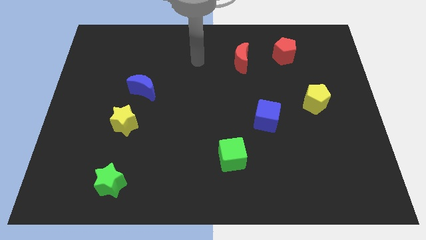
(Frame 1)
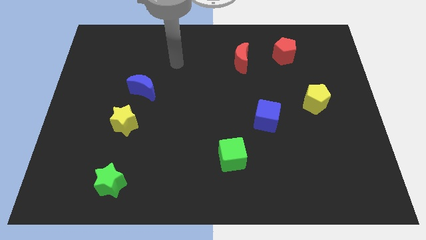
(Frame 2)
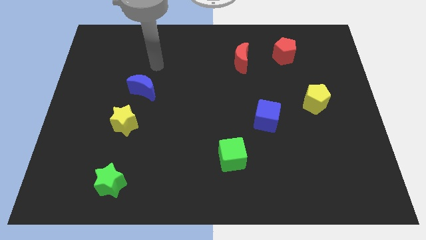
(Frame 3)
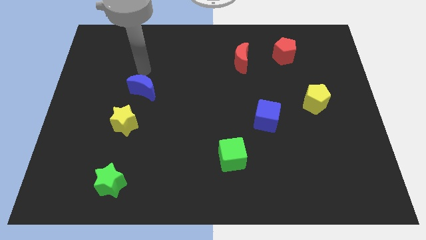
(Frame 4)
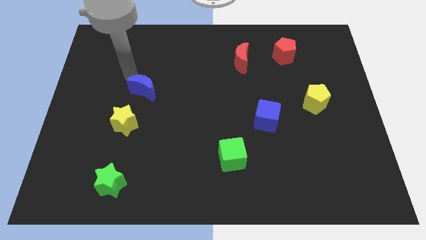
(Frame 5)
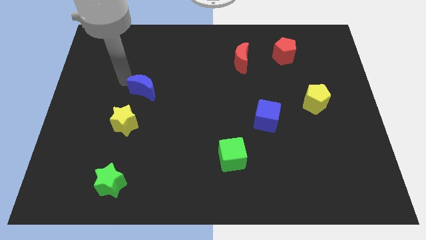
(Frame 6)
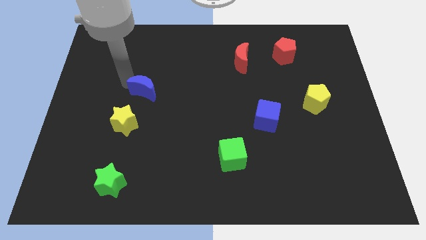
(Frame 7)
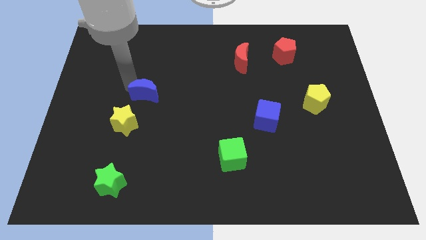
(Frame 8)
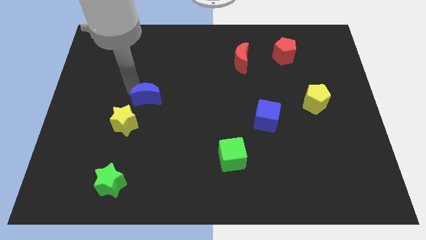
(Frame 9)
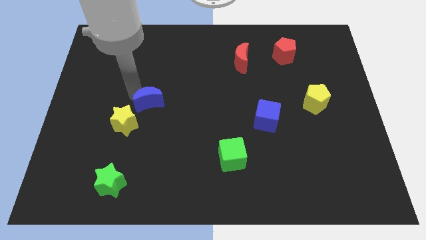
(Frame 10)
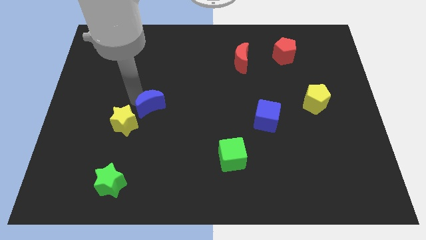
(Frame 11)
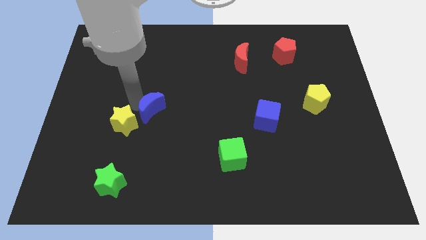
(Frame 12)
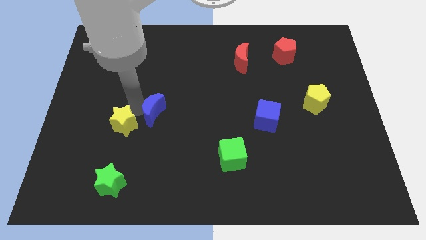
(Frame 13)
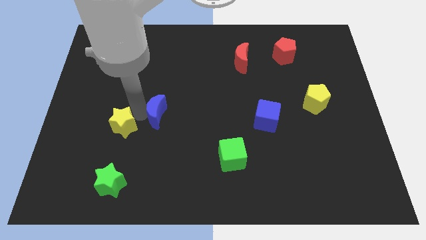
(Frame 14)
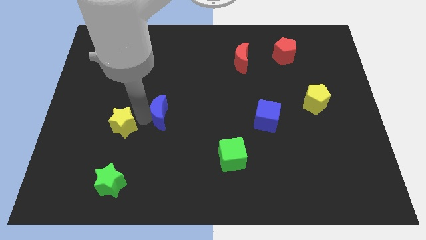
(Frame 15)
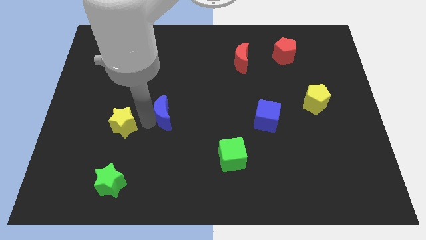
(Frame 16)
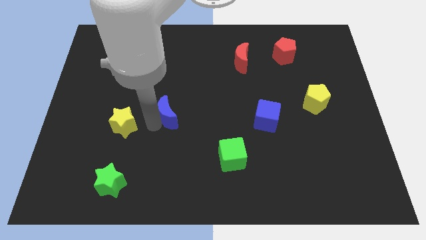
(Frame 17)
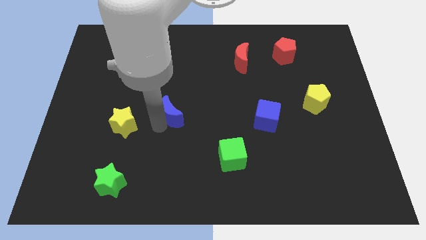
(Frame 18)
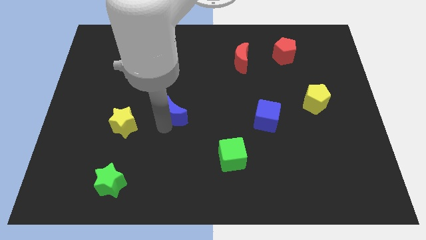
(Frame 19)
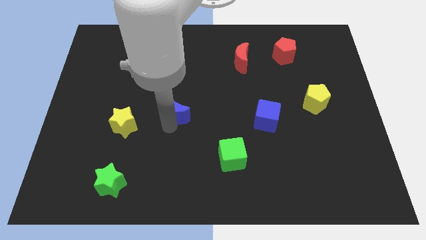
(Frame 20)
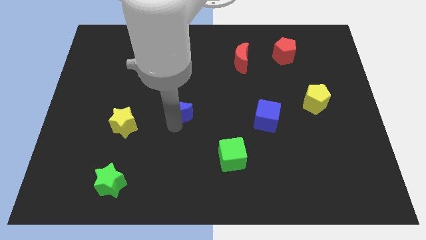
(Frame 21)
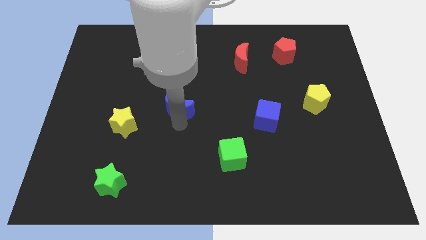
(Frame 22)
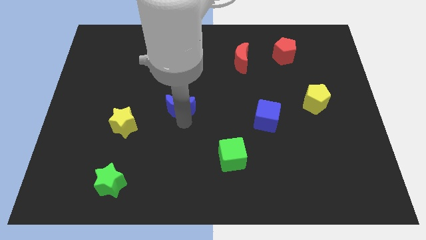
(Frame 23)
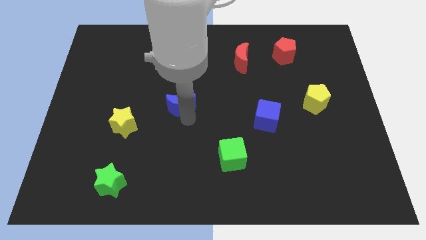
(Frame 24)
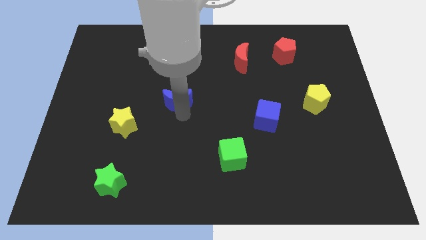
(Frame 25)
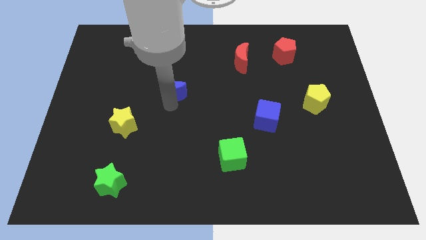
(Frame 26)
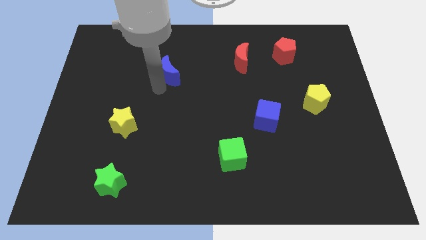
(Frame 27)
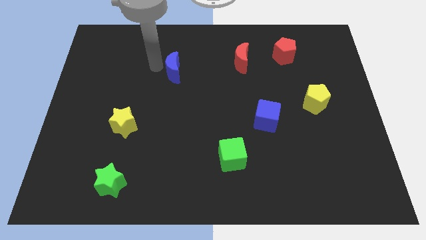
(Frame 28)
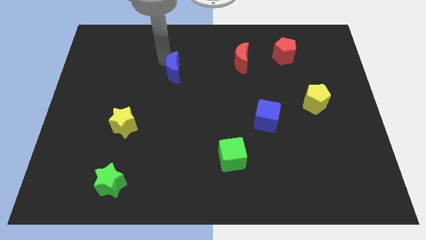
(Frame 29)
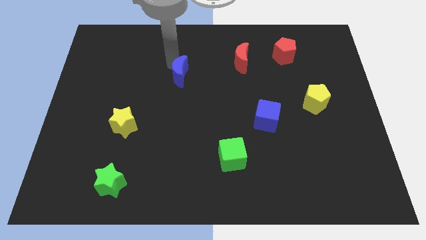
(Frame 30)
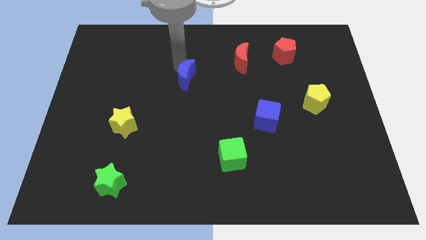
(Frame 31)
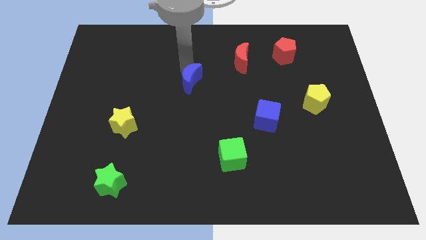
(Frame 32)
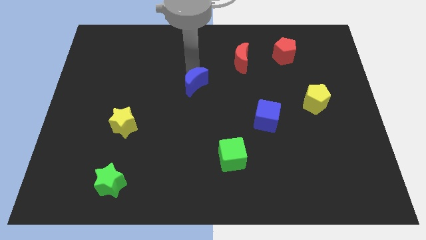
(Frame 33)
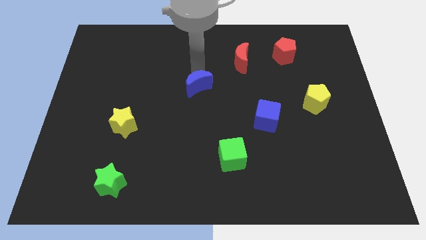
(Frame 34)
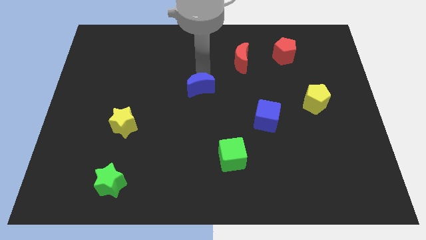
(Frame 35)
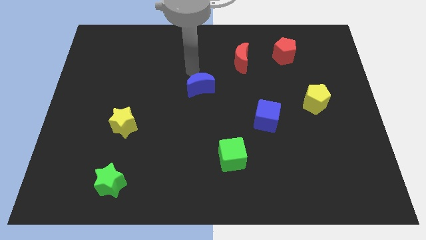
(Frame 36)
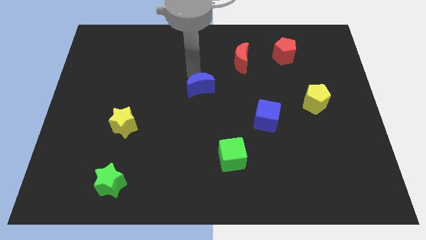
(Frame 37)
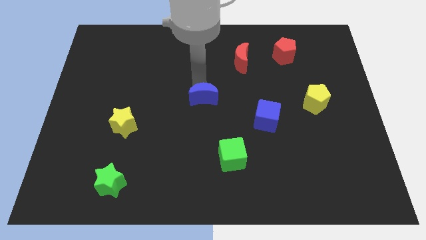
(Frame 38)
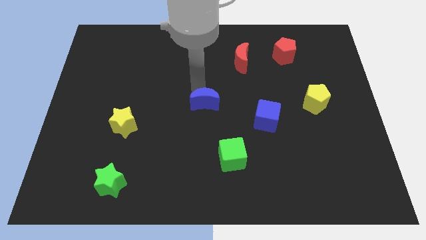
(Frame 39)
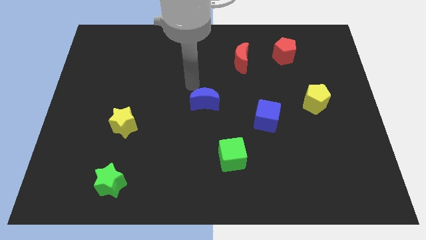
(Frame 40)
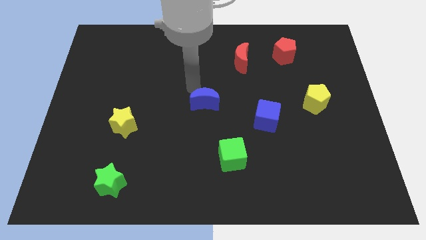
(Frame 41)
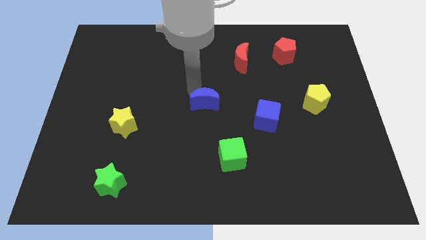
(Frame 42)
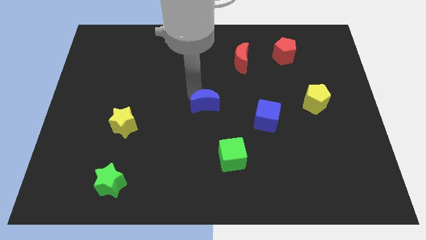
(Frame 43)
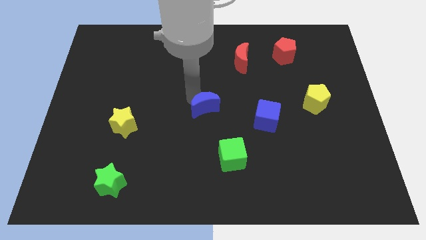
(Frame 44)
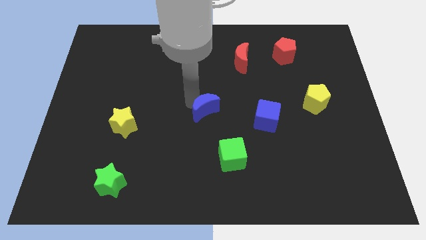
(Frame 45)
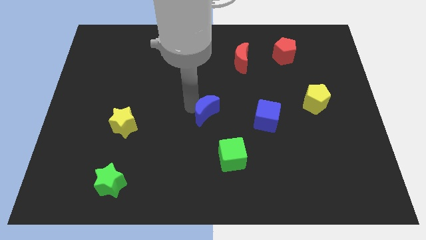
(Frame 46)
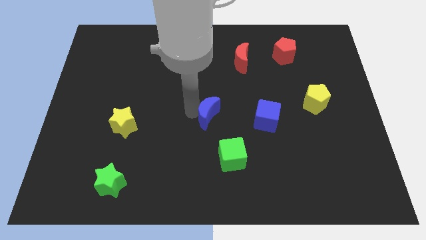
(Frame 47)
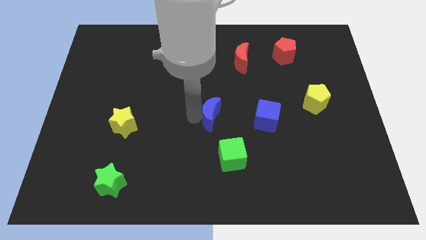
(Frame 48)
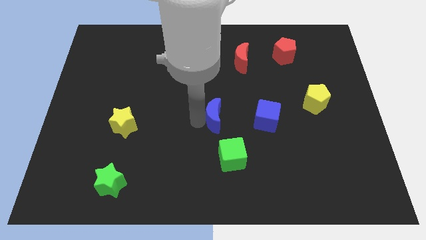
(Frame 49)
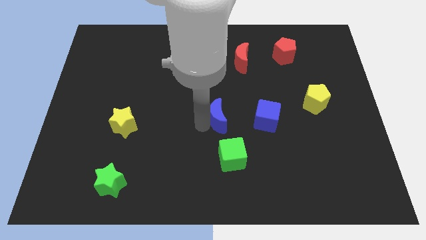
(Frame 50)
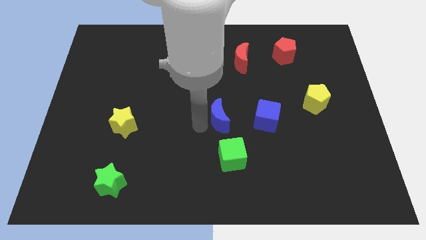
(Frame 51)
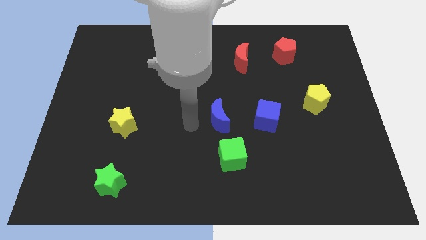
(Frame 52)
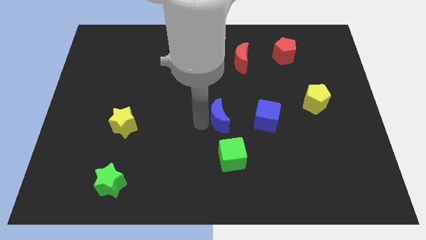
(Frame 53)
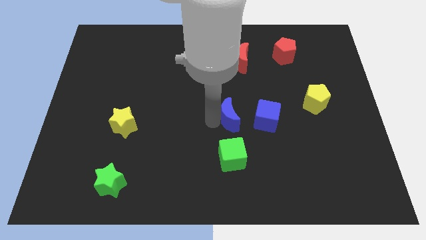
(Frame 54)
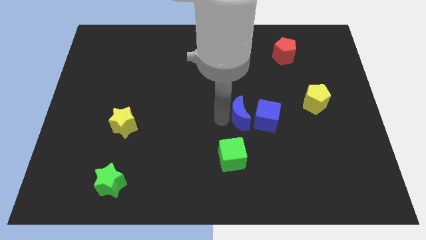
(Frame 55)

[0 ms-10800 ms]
slide the blue moon towards the blue cube

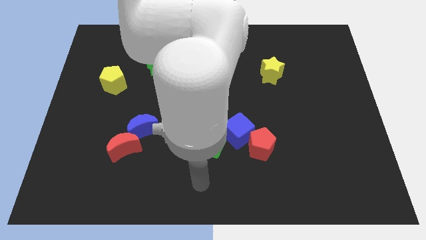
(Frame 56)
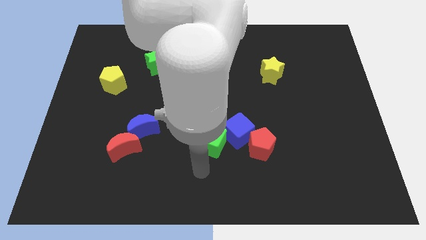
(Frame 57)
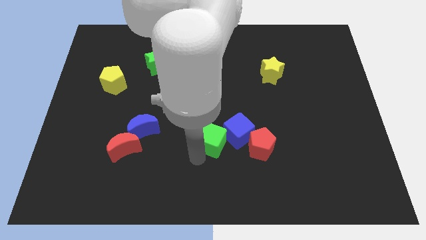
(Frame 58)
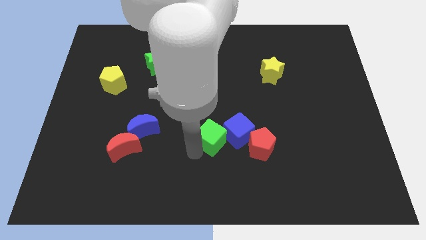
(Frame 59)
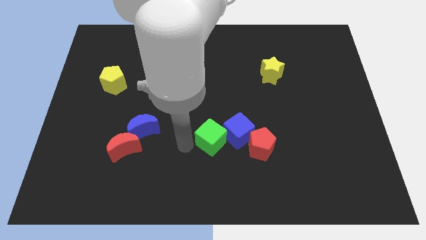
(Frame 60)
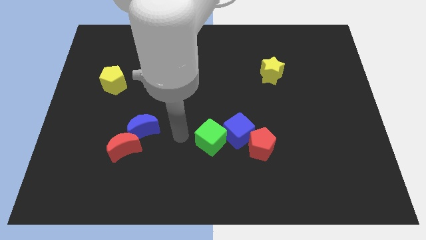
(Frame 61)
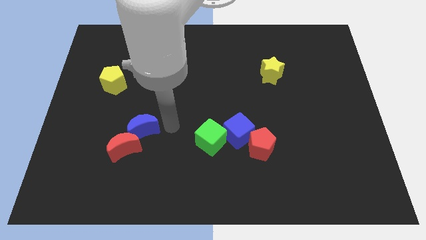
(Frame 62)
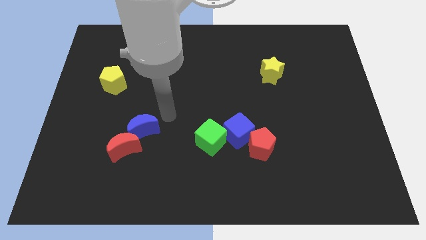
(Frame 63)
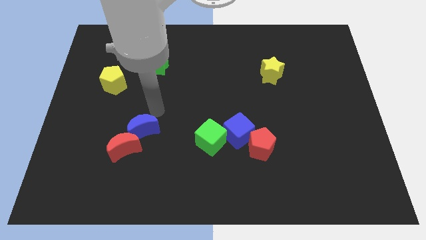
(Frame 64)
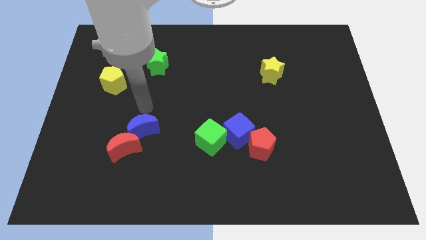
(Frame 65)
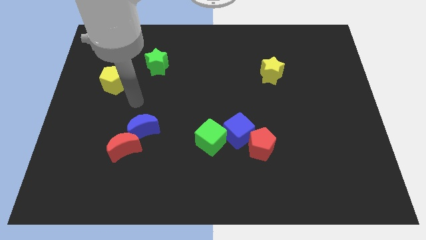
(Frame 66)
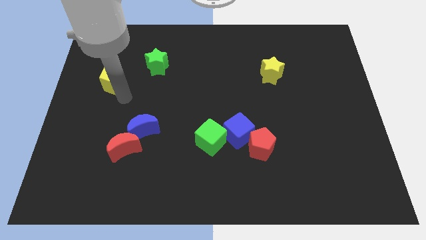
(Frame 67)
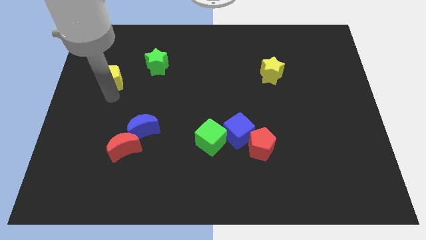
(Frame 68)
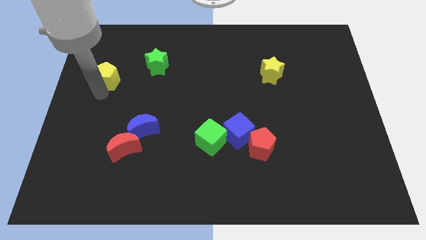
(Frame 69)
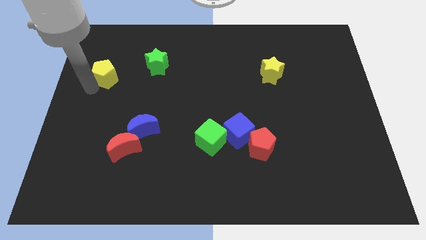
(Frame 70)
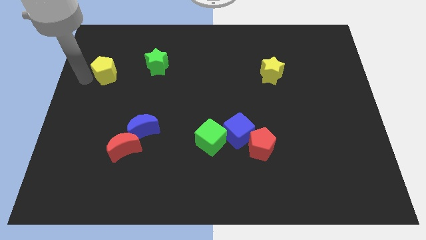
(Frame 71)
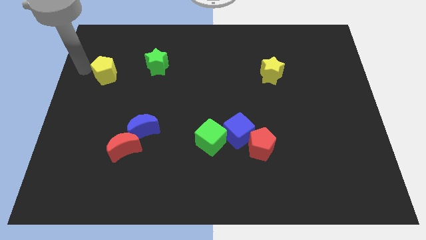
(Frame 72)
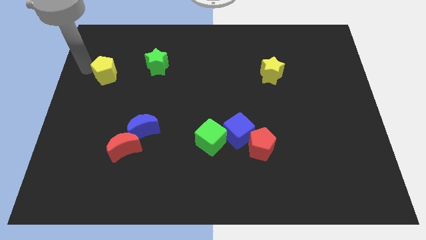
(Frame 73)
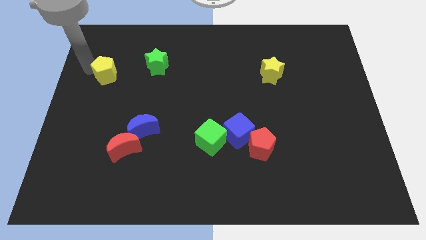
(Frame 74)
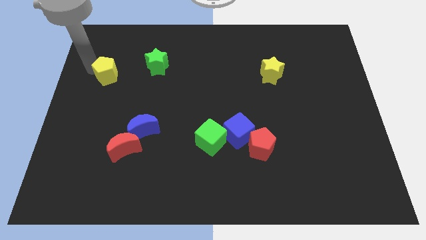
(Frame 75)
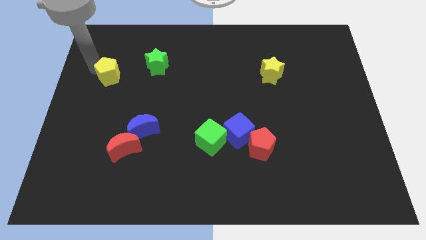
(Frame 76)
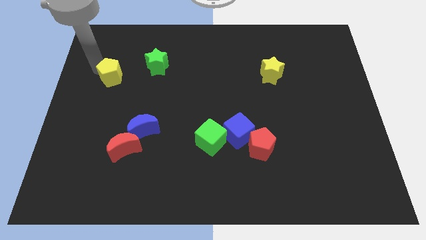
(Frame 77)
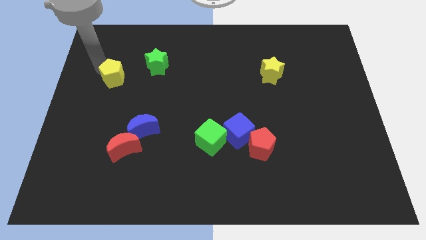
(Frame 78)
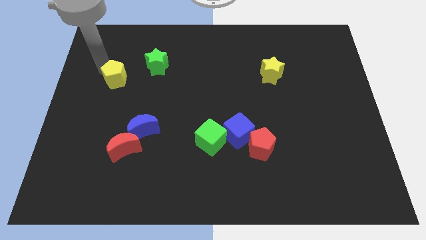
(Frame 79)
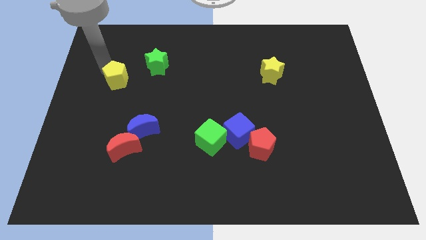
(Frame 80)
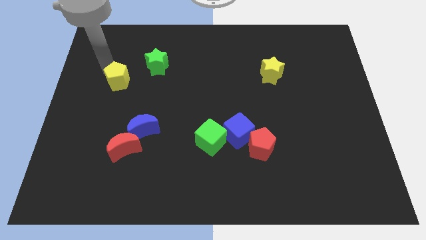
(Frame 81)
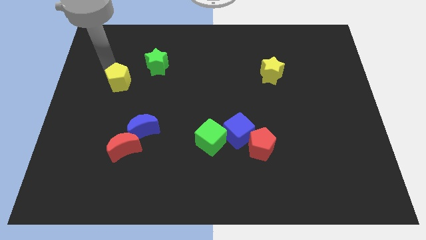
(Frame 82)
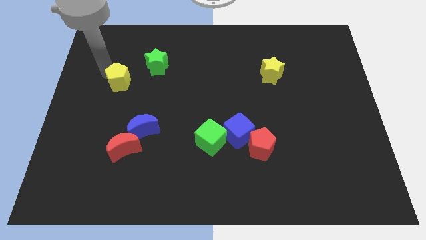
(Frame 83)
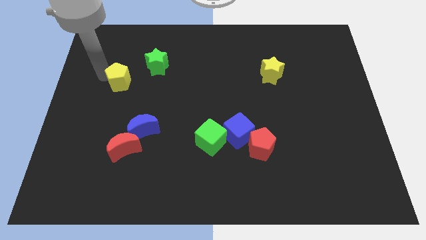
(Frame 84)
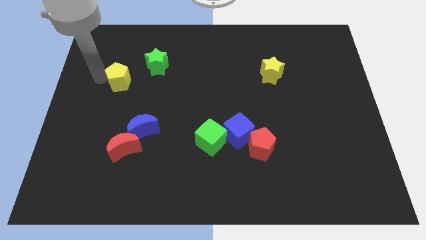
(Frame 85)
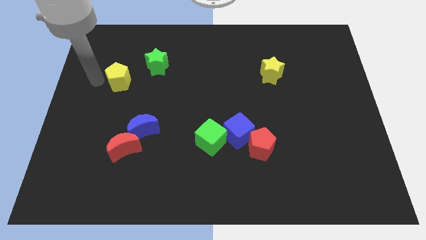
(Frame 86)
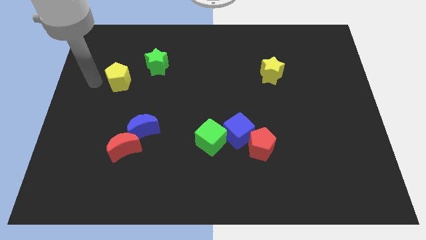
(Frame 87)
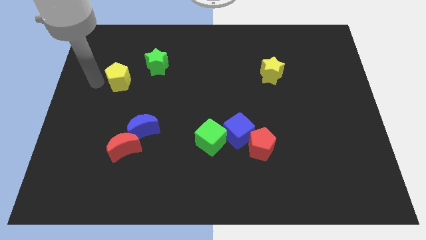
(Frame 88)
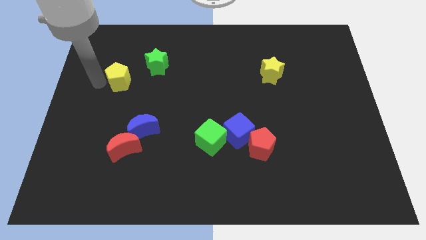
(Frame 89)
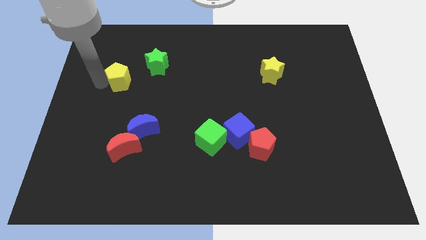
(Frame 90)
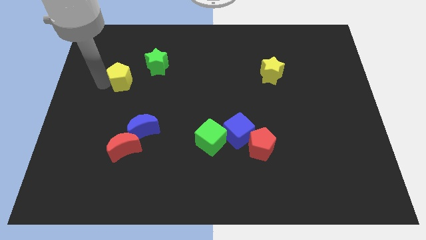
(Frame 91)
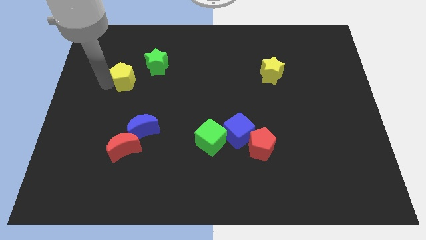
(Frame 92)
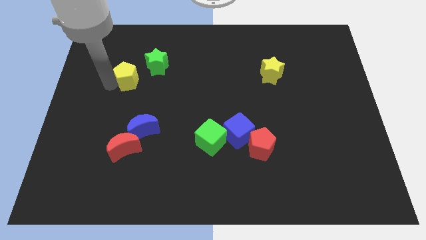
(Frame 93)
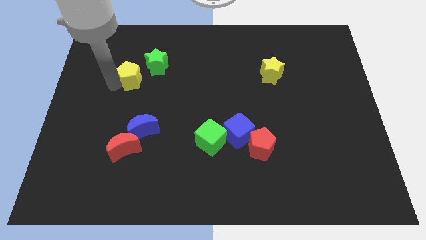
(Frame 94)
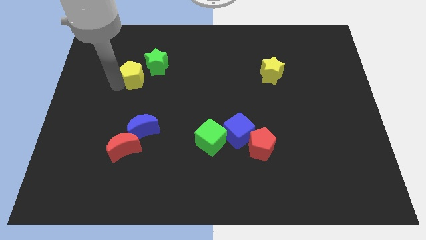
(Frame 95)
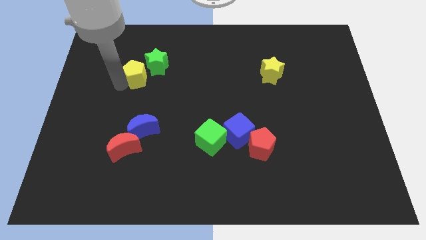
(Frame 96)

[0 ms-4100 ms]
push the yellow pentagon close to the green star
